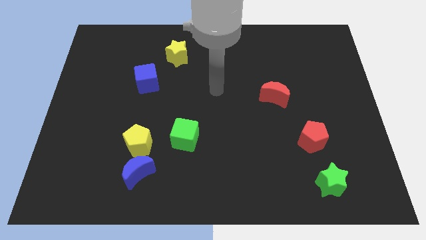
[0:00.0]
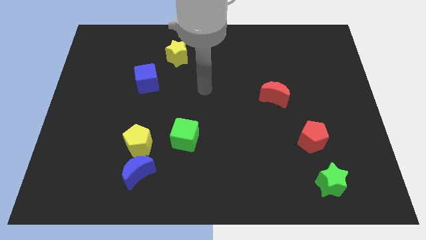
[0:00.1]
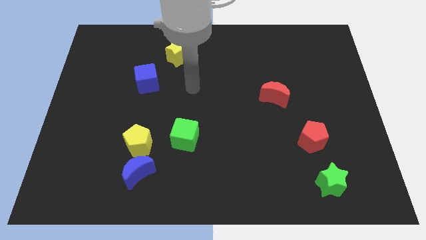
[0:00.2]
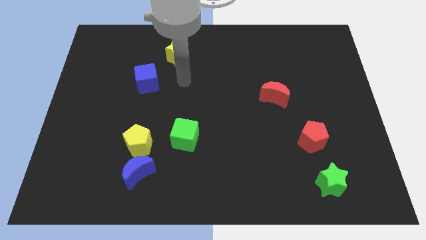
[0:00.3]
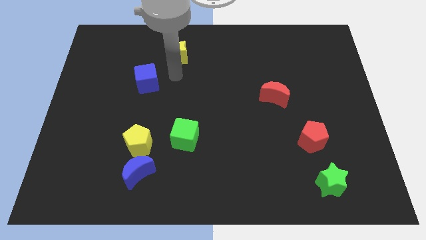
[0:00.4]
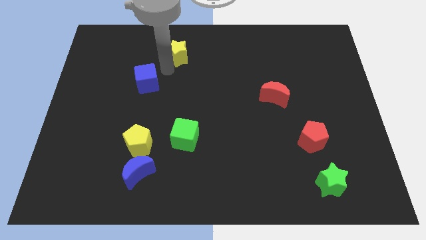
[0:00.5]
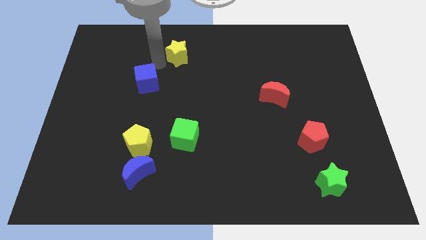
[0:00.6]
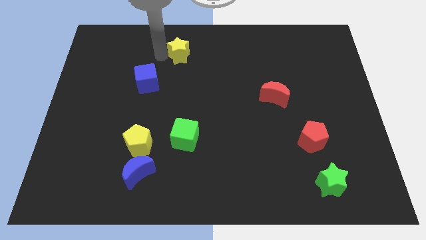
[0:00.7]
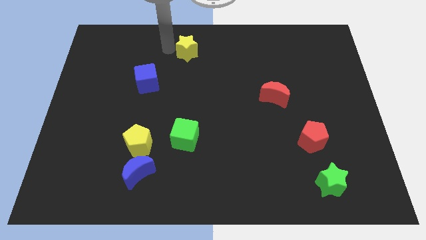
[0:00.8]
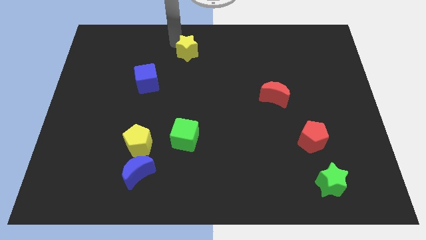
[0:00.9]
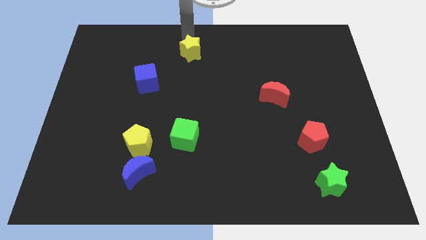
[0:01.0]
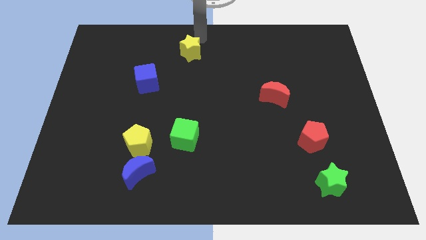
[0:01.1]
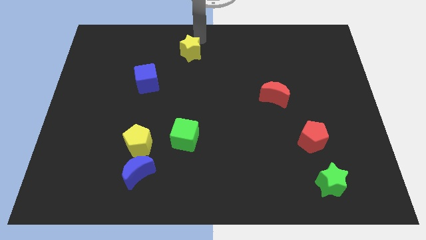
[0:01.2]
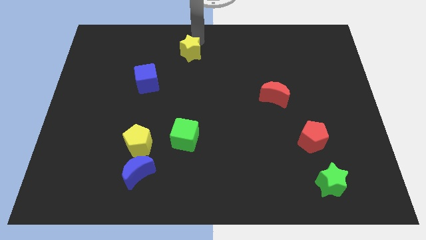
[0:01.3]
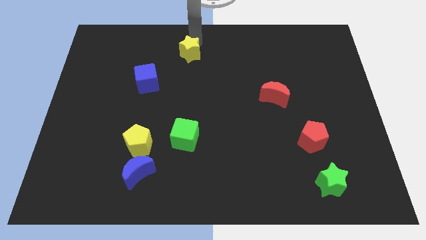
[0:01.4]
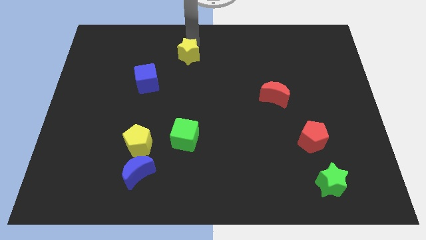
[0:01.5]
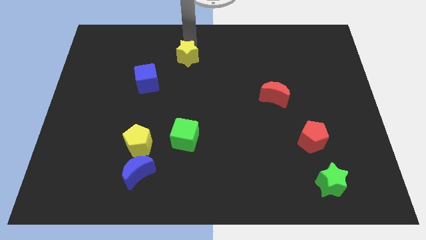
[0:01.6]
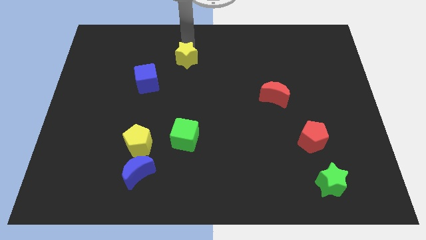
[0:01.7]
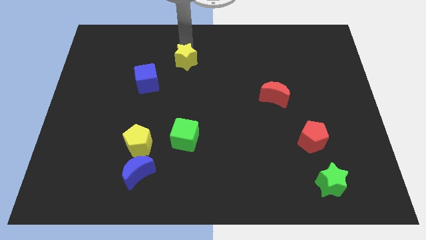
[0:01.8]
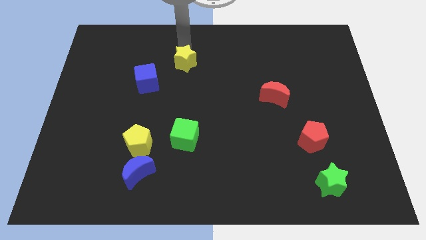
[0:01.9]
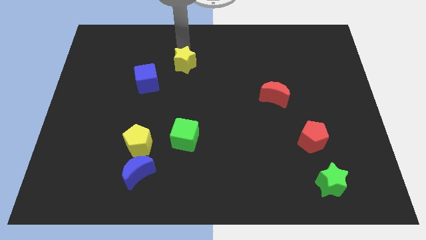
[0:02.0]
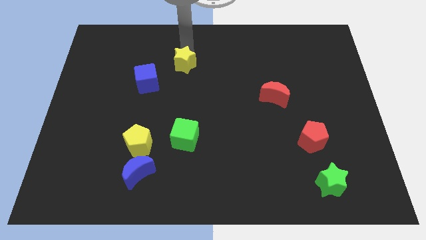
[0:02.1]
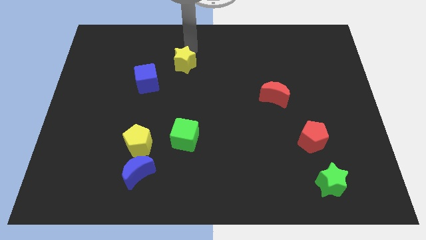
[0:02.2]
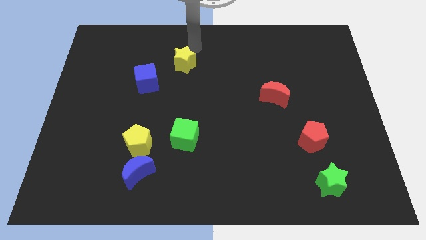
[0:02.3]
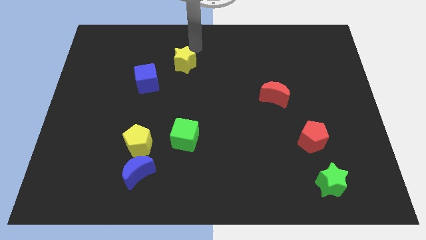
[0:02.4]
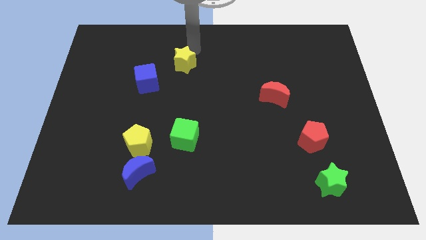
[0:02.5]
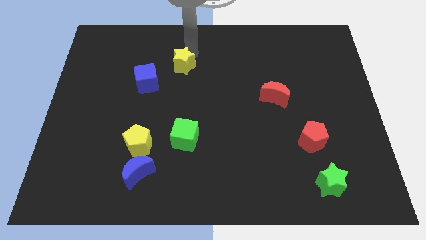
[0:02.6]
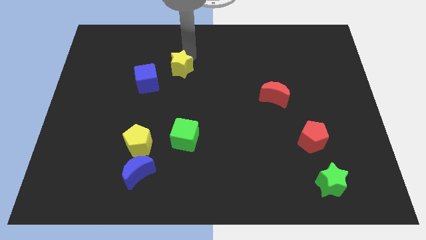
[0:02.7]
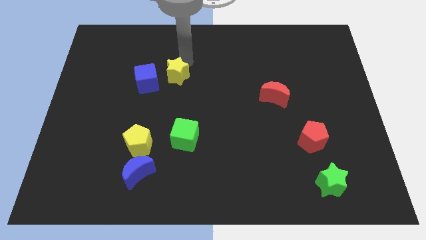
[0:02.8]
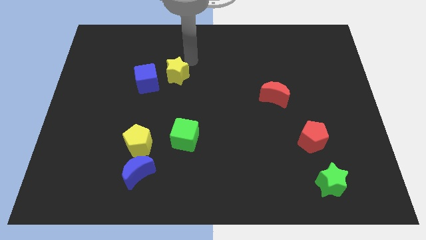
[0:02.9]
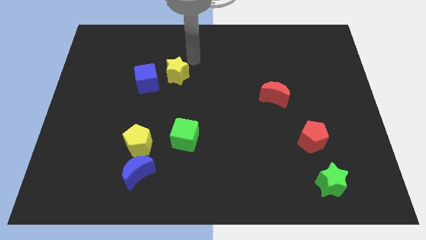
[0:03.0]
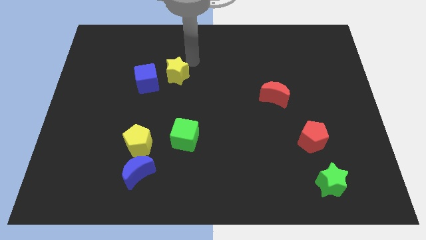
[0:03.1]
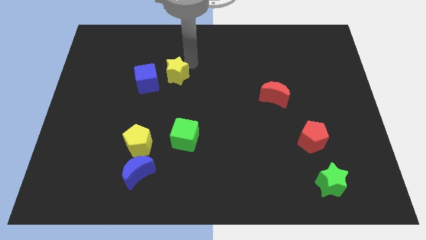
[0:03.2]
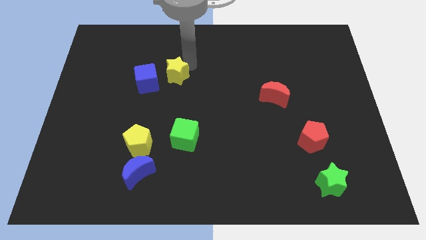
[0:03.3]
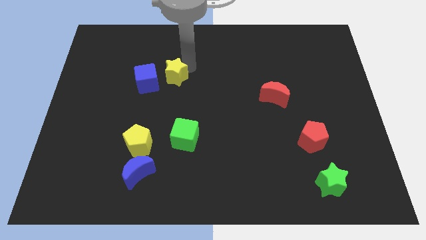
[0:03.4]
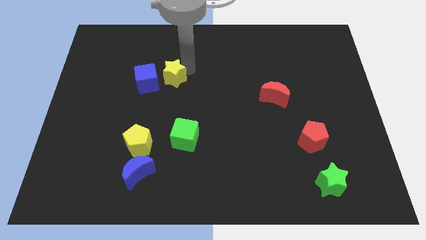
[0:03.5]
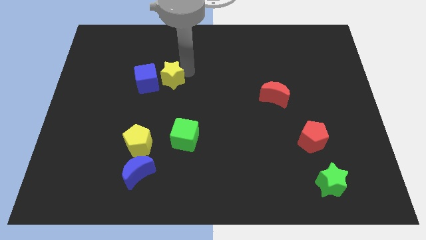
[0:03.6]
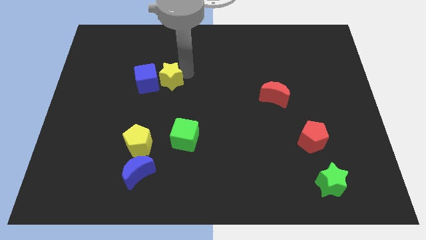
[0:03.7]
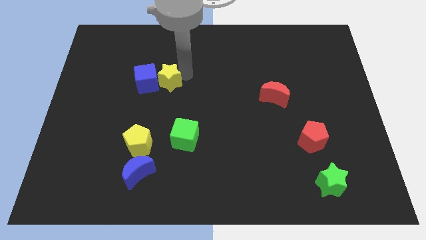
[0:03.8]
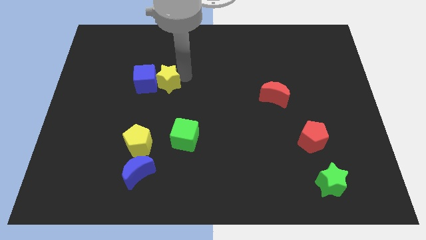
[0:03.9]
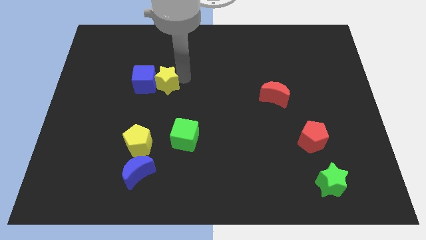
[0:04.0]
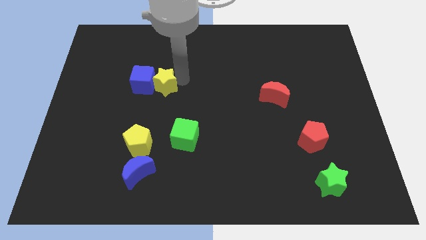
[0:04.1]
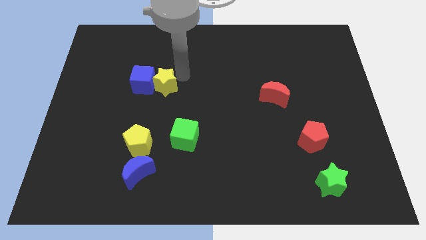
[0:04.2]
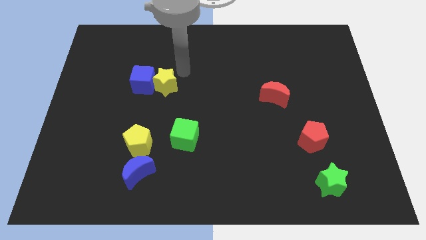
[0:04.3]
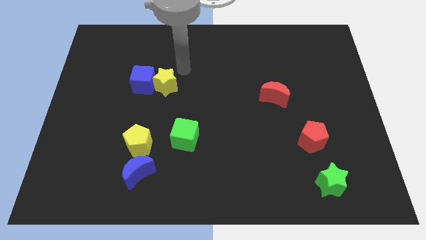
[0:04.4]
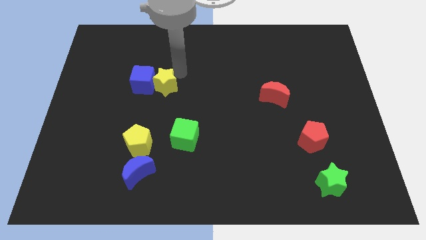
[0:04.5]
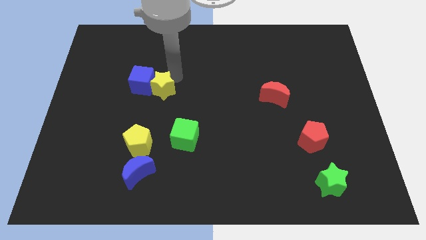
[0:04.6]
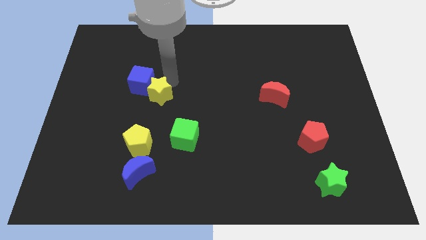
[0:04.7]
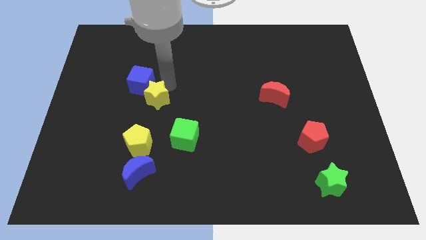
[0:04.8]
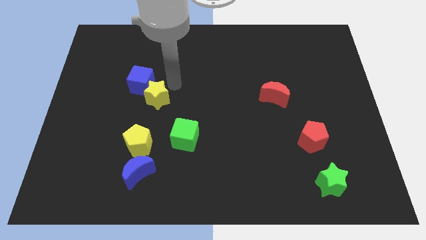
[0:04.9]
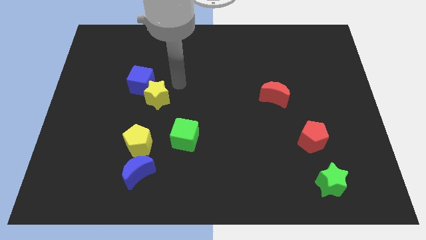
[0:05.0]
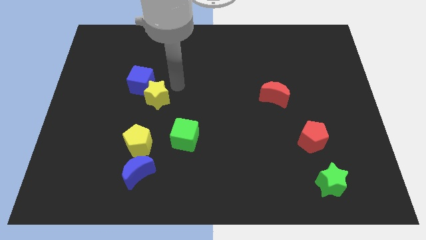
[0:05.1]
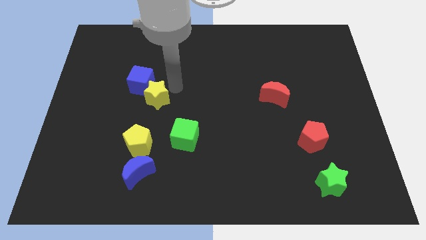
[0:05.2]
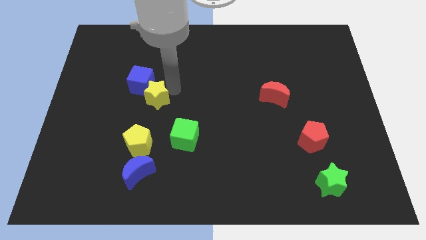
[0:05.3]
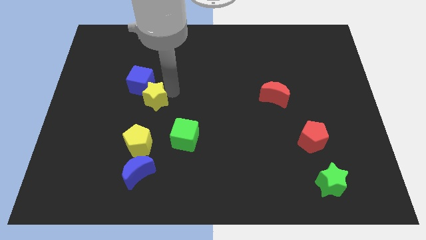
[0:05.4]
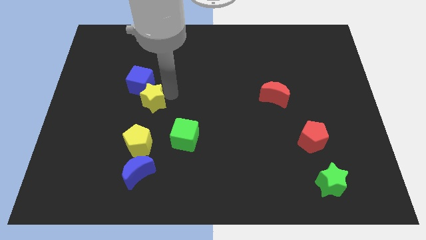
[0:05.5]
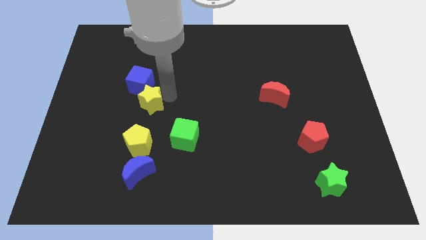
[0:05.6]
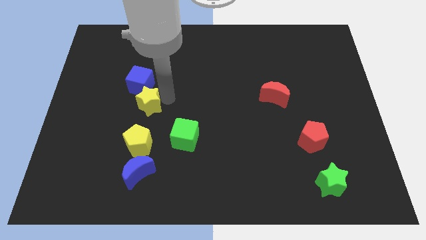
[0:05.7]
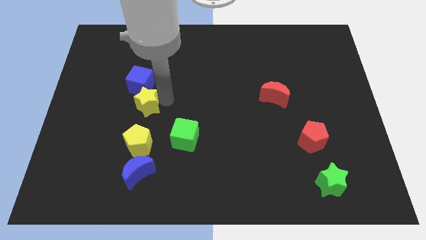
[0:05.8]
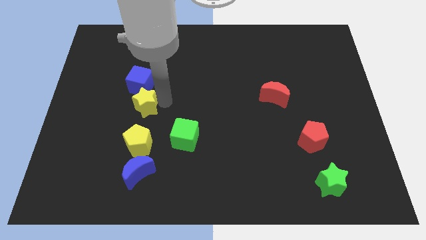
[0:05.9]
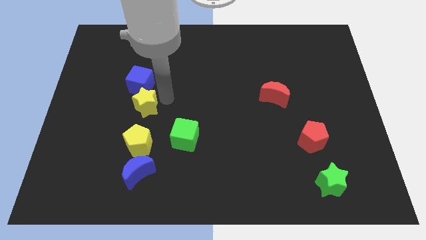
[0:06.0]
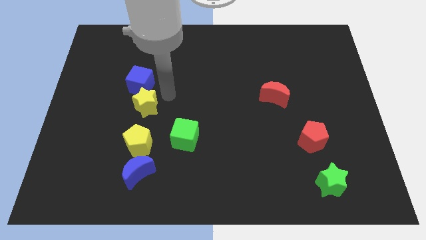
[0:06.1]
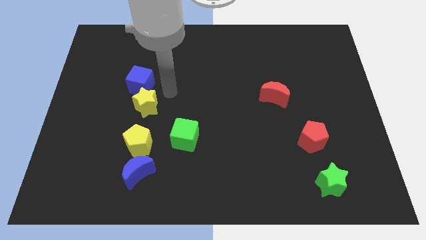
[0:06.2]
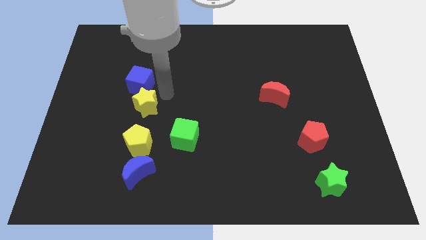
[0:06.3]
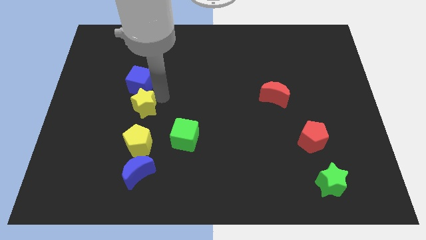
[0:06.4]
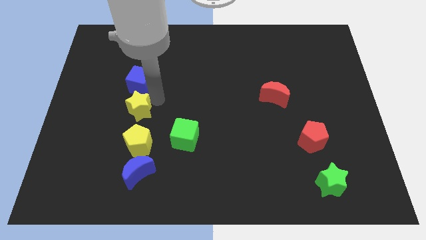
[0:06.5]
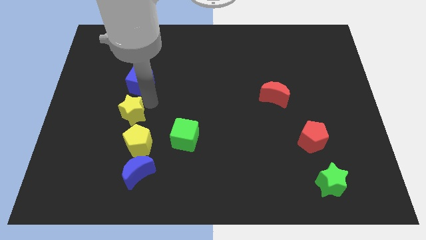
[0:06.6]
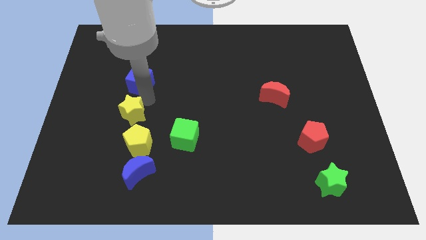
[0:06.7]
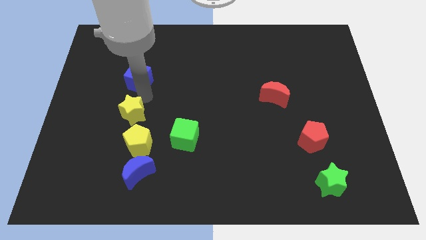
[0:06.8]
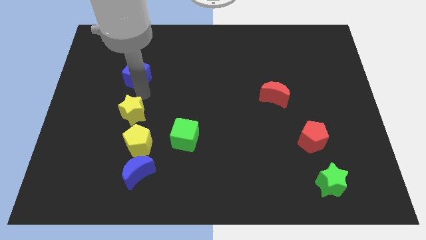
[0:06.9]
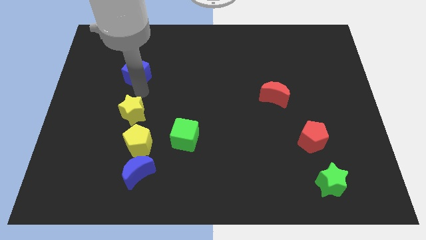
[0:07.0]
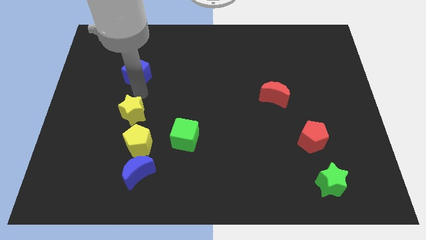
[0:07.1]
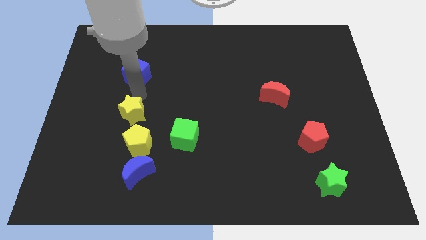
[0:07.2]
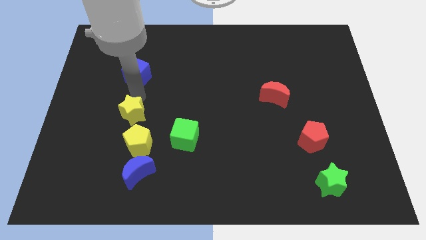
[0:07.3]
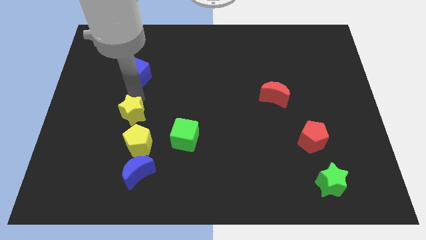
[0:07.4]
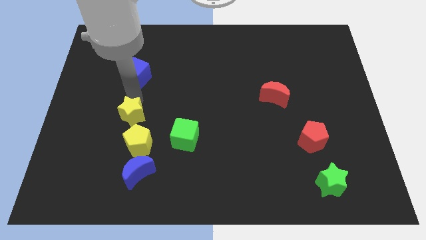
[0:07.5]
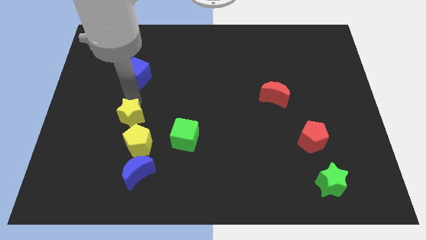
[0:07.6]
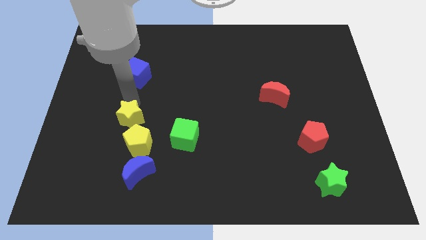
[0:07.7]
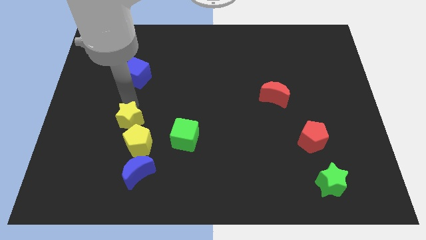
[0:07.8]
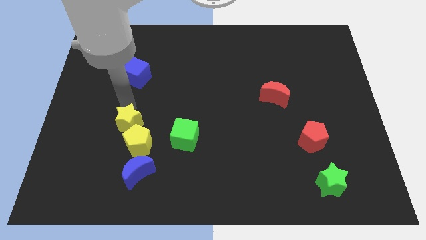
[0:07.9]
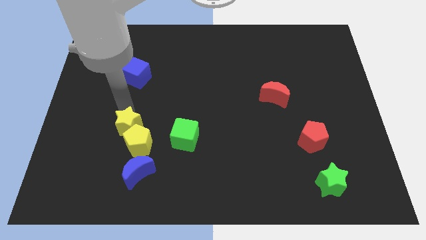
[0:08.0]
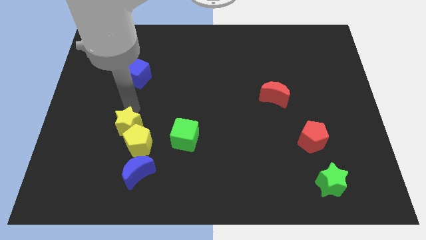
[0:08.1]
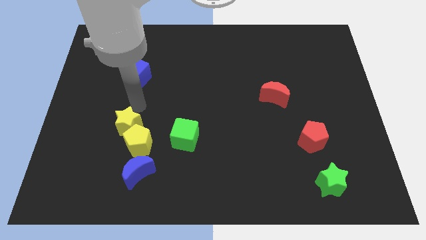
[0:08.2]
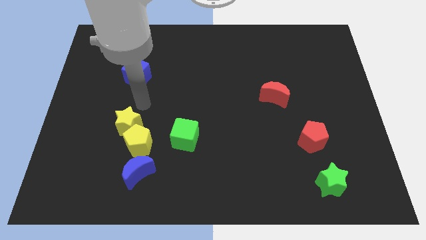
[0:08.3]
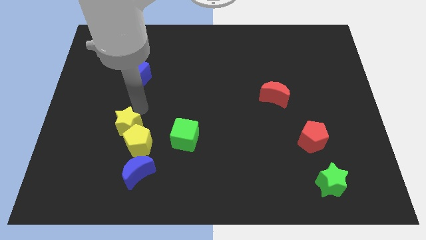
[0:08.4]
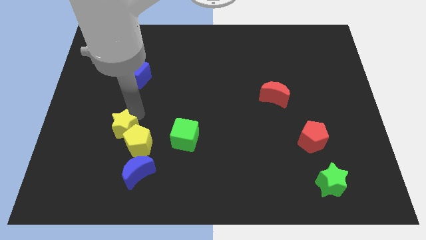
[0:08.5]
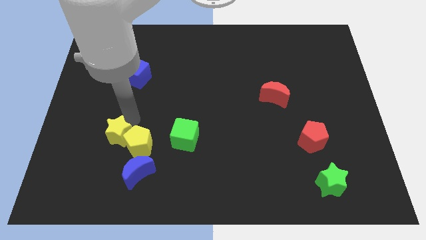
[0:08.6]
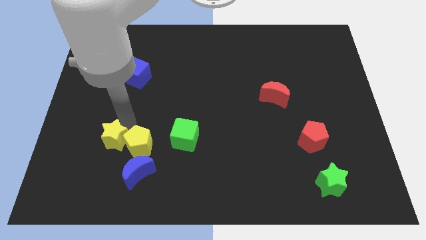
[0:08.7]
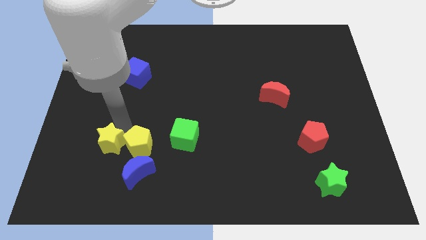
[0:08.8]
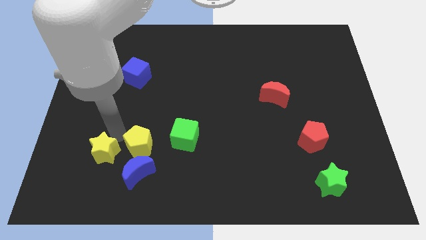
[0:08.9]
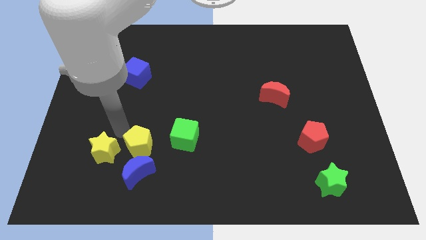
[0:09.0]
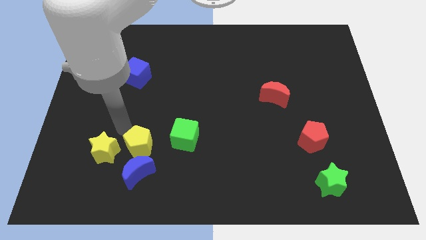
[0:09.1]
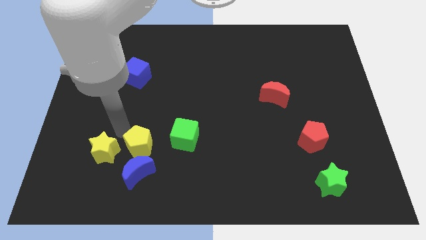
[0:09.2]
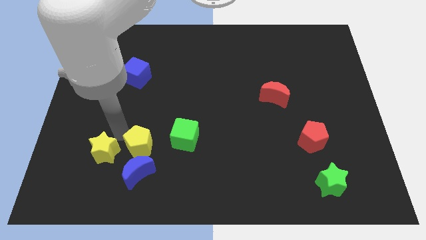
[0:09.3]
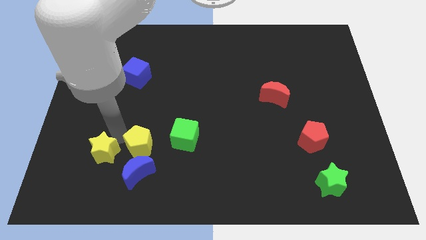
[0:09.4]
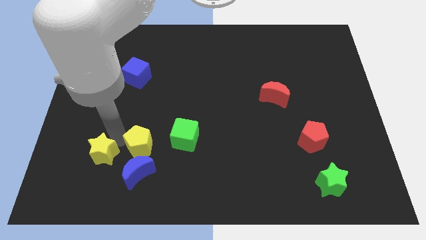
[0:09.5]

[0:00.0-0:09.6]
push the yellow star just left of the blue moon
